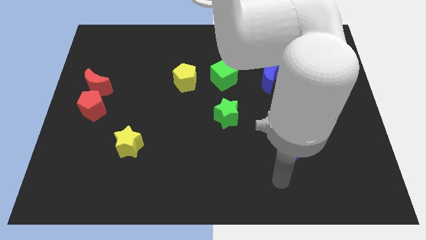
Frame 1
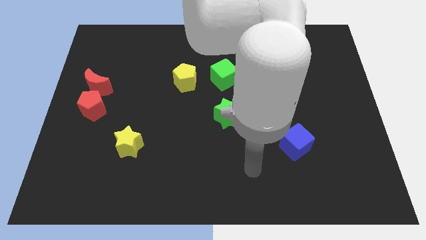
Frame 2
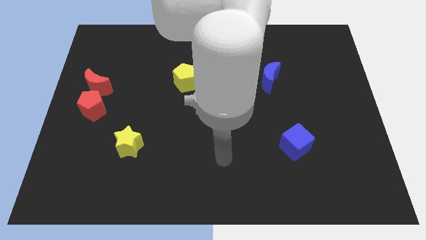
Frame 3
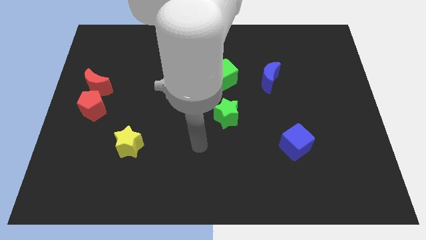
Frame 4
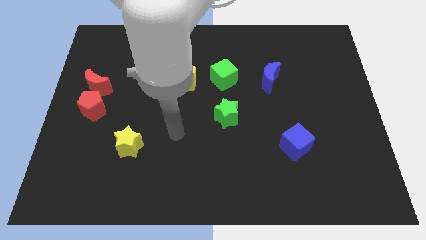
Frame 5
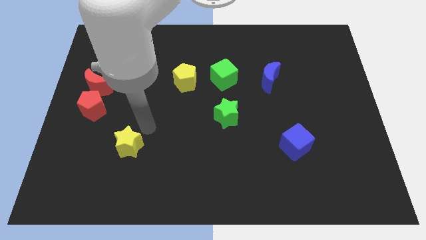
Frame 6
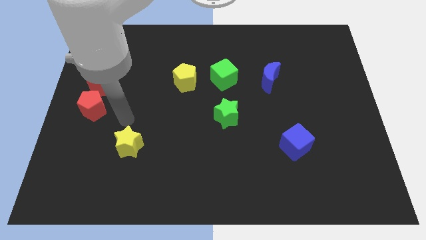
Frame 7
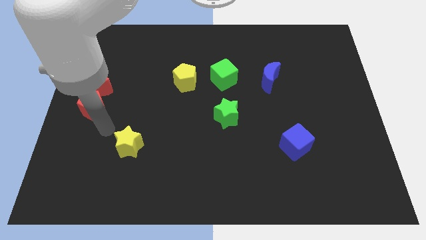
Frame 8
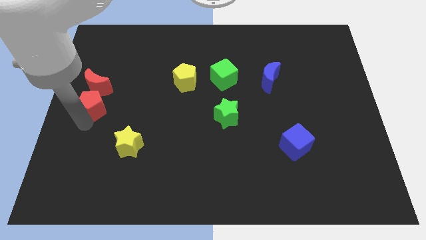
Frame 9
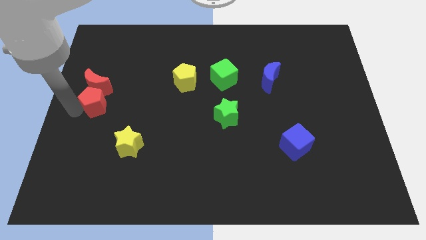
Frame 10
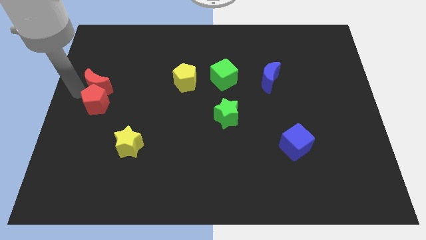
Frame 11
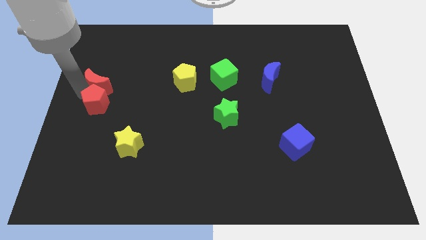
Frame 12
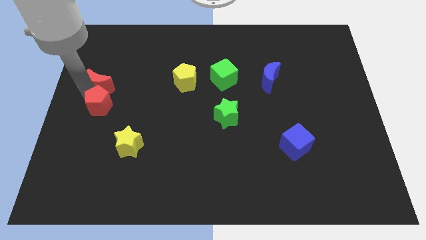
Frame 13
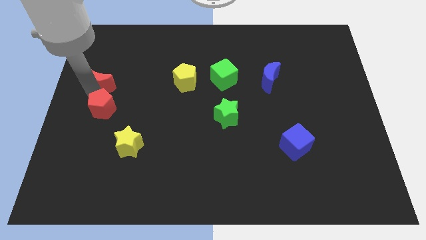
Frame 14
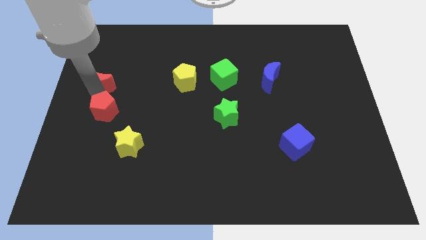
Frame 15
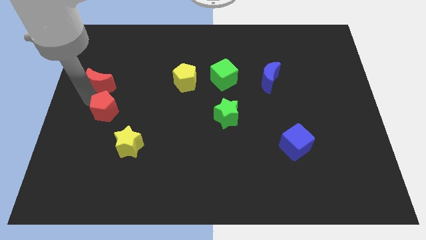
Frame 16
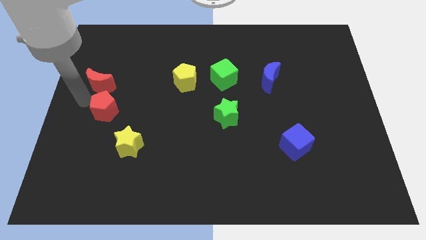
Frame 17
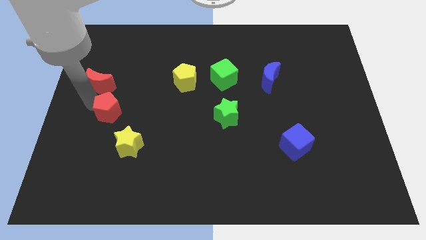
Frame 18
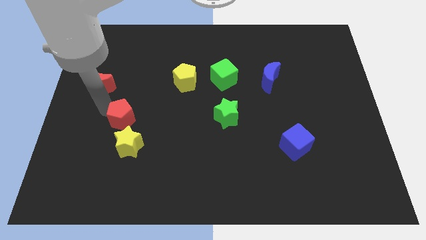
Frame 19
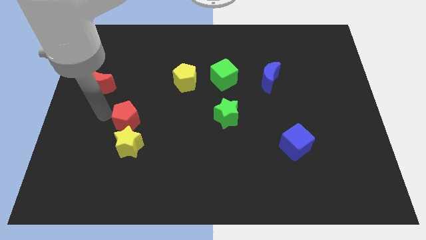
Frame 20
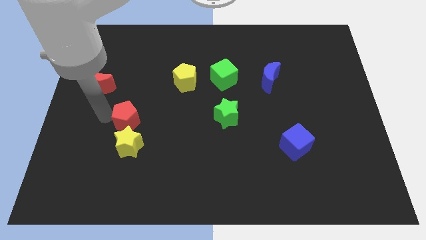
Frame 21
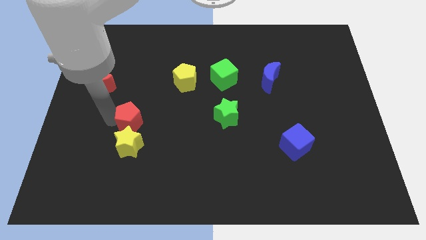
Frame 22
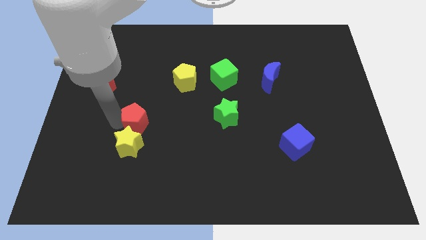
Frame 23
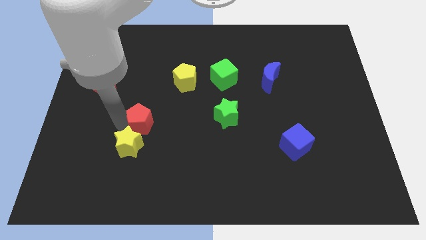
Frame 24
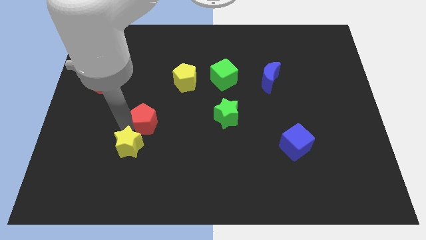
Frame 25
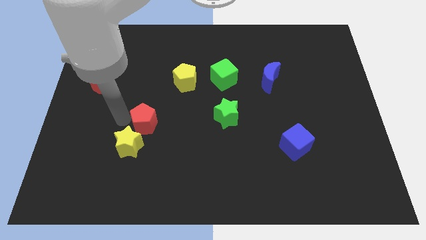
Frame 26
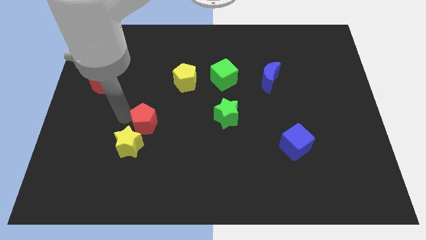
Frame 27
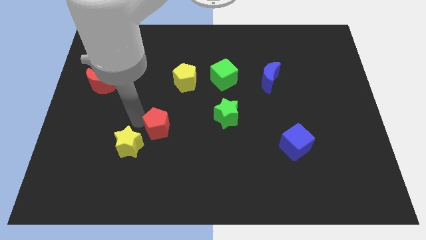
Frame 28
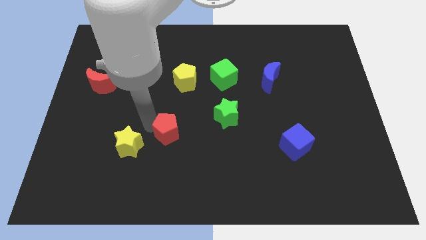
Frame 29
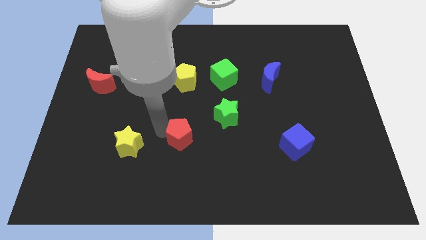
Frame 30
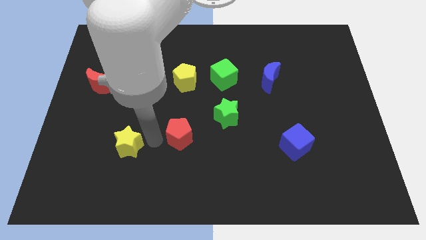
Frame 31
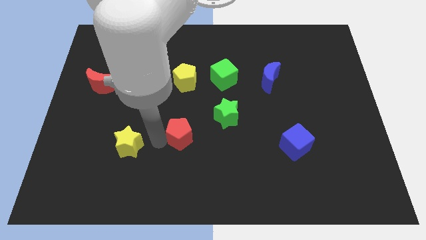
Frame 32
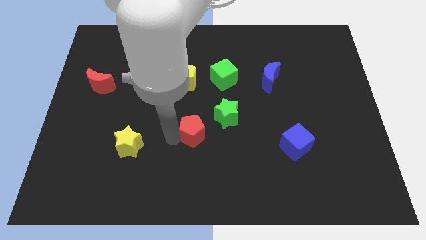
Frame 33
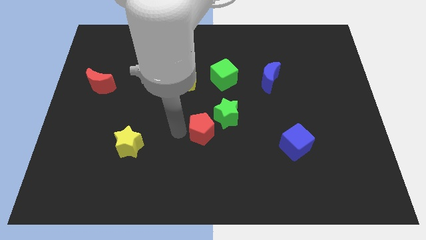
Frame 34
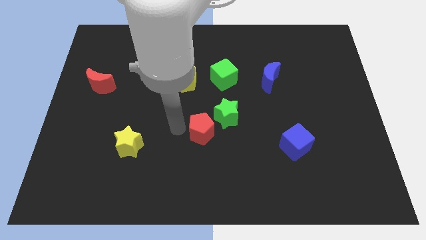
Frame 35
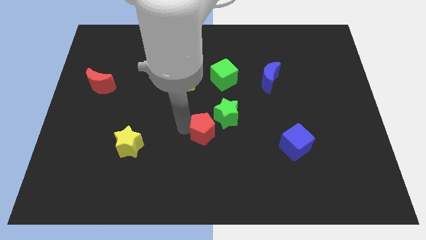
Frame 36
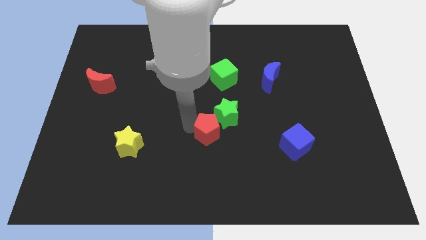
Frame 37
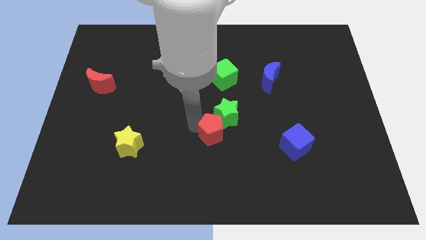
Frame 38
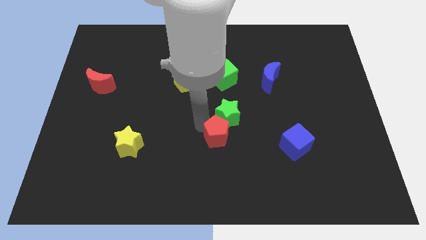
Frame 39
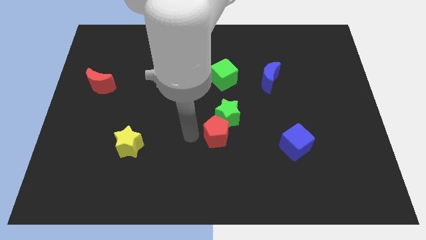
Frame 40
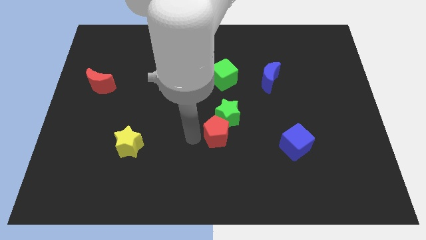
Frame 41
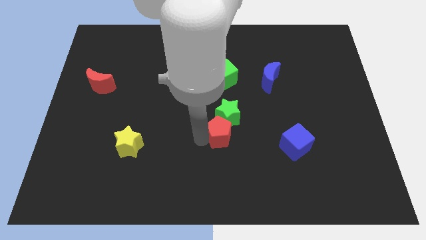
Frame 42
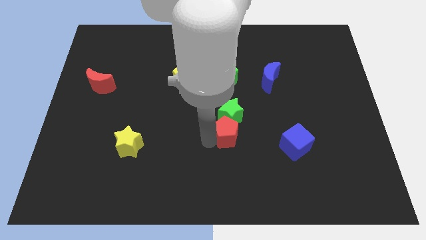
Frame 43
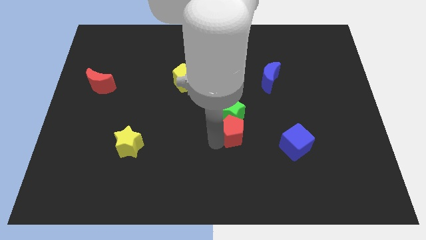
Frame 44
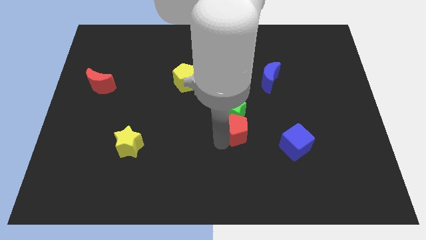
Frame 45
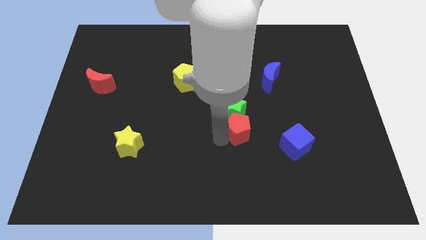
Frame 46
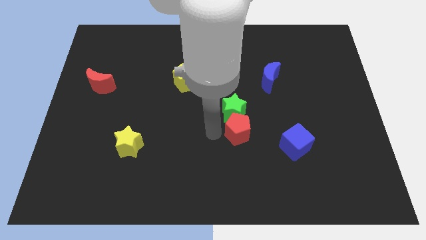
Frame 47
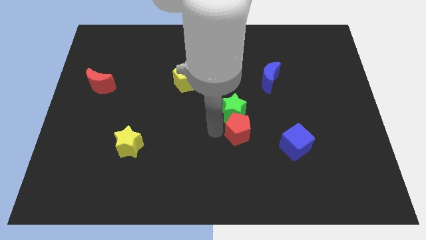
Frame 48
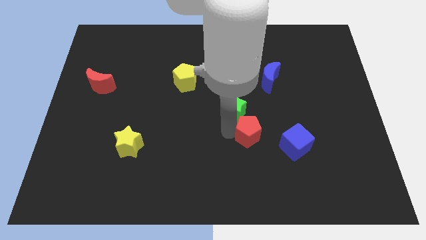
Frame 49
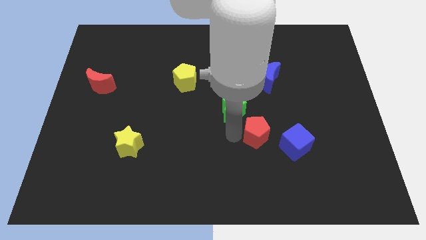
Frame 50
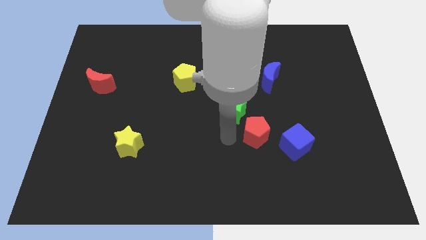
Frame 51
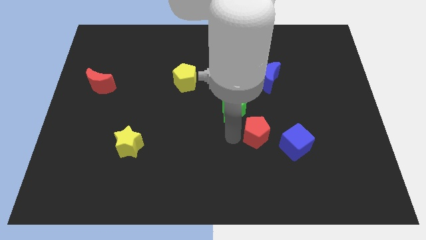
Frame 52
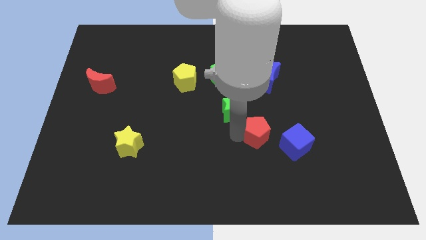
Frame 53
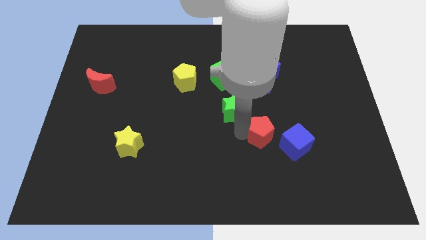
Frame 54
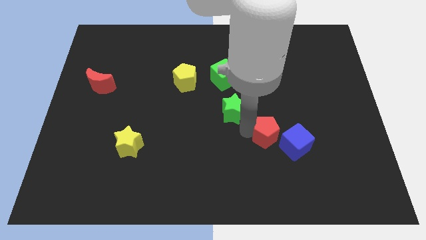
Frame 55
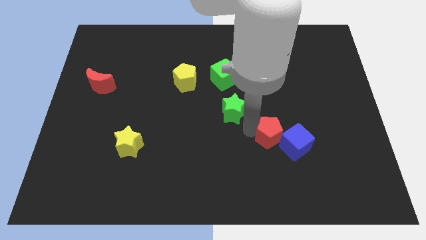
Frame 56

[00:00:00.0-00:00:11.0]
move the red pentagon close to the blue cube

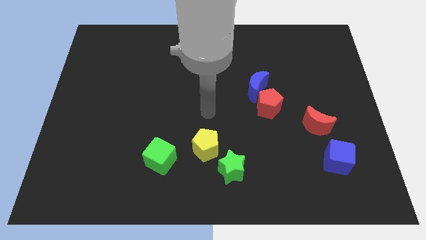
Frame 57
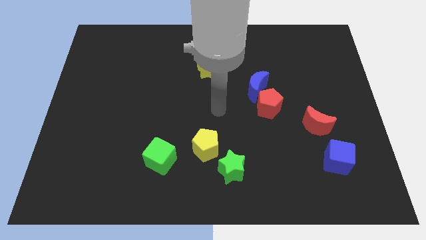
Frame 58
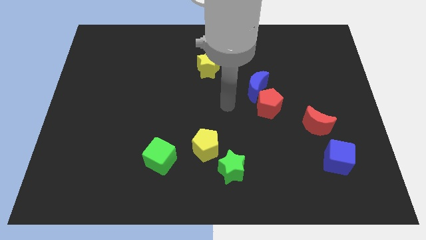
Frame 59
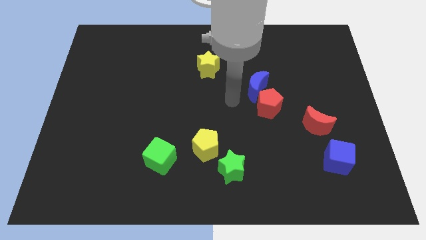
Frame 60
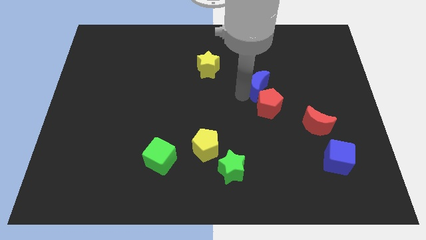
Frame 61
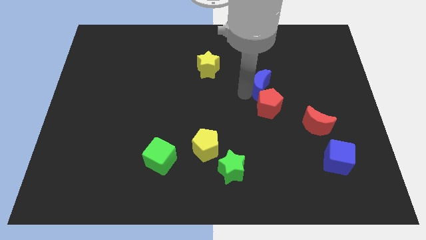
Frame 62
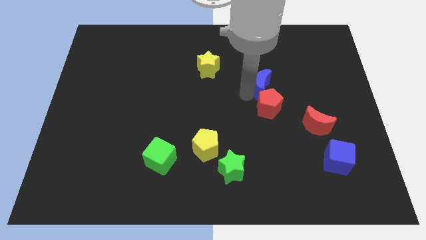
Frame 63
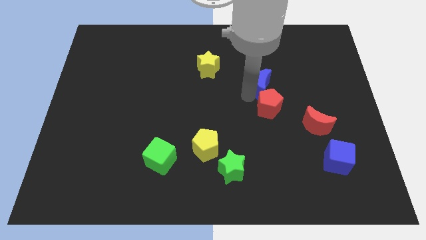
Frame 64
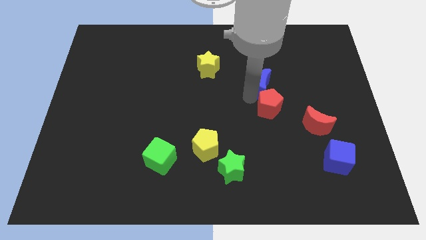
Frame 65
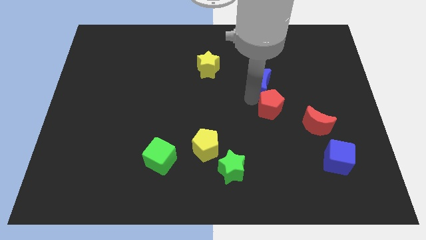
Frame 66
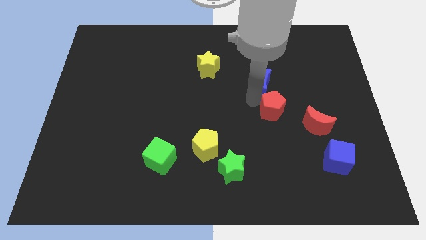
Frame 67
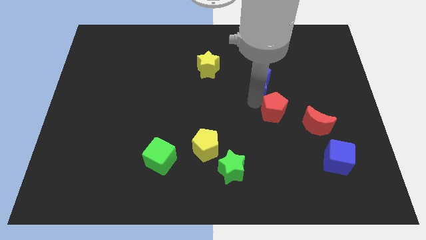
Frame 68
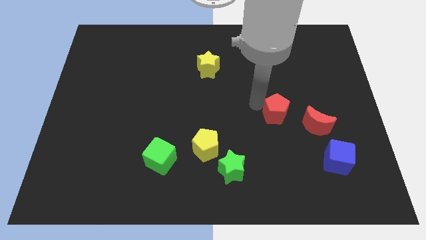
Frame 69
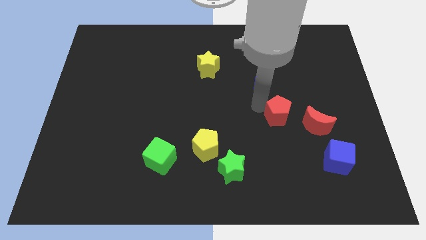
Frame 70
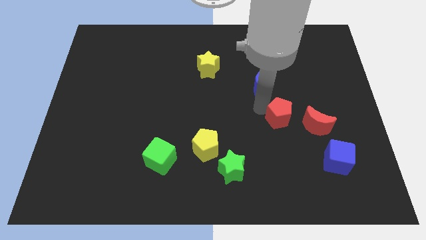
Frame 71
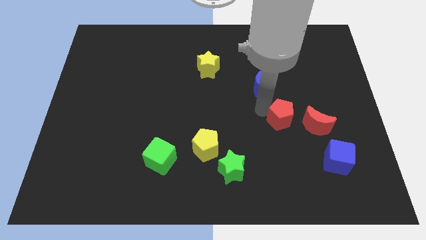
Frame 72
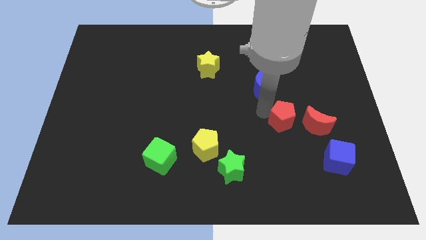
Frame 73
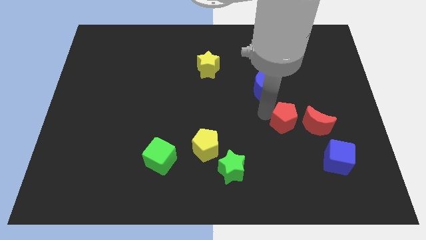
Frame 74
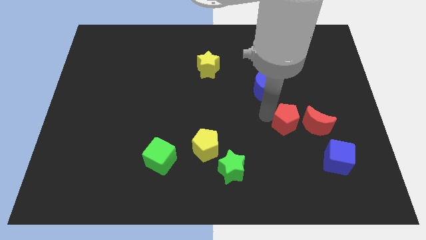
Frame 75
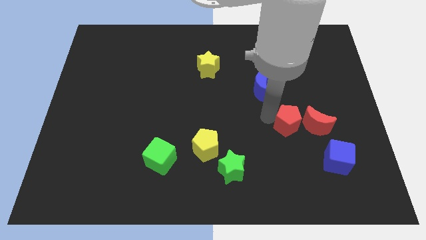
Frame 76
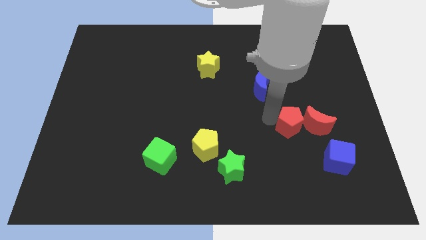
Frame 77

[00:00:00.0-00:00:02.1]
slide the red pentagon next to the red moon
